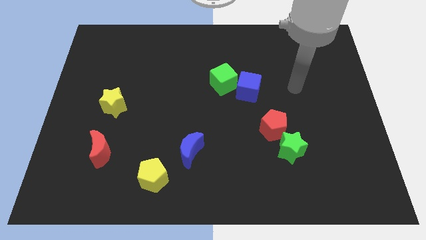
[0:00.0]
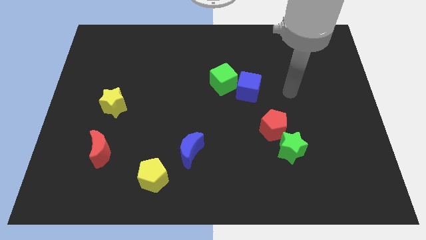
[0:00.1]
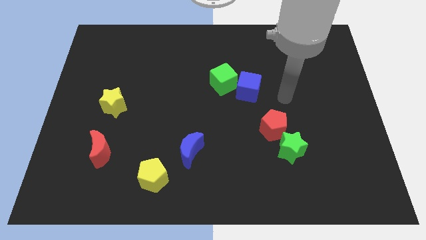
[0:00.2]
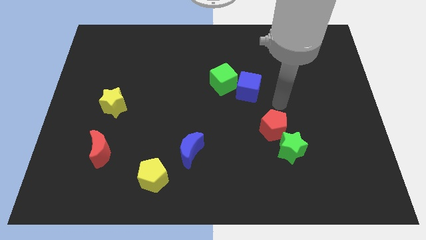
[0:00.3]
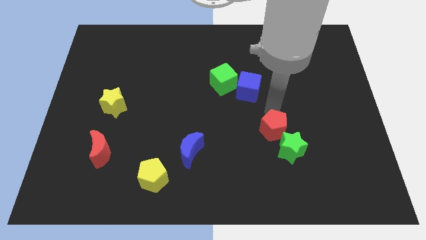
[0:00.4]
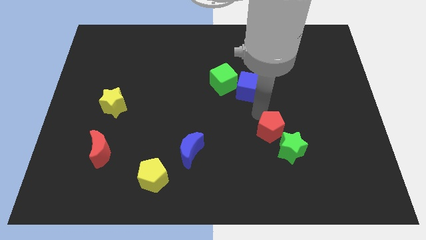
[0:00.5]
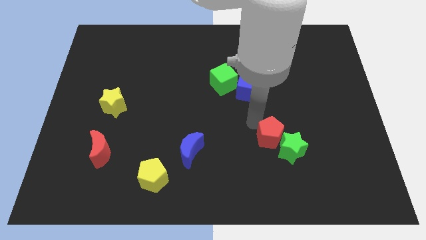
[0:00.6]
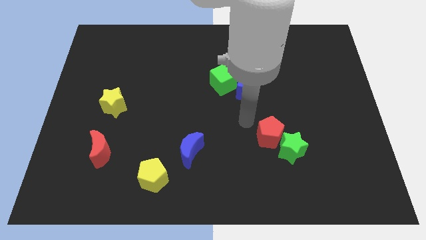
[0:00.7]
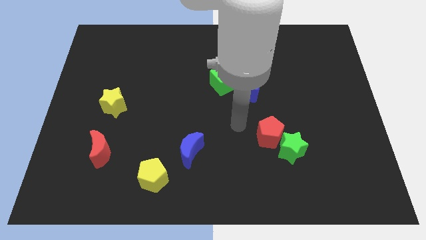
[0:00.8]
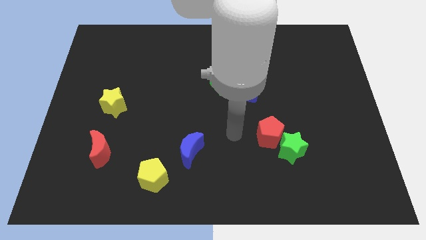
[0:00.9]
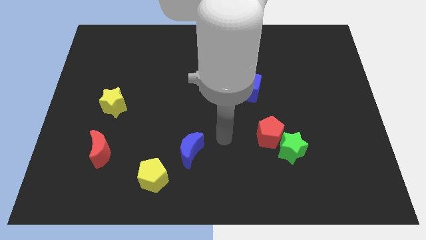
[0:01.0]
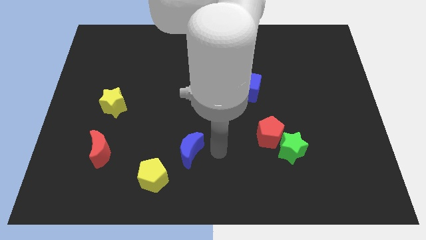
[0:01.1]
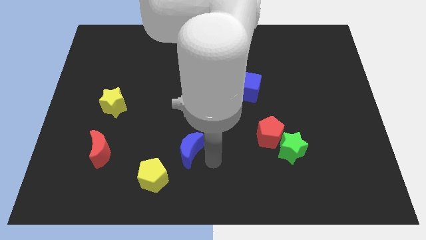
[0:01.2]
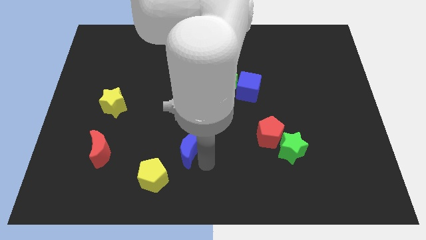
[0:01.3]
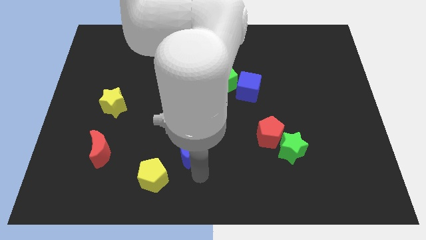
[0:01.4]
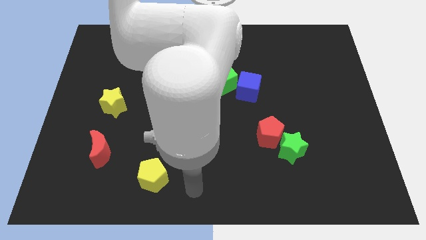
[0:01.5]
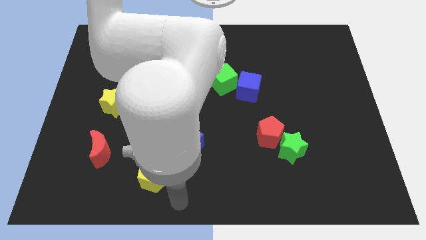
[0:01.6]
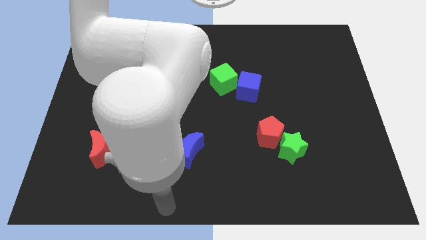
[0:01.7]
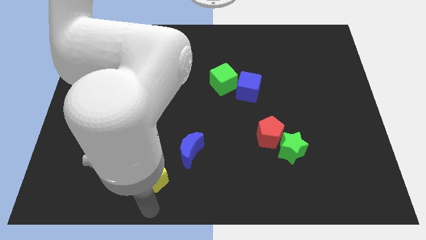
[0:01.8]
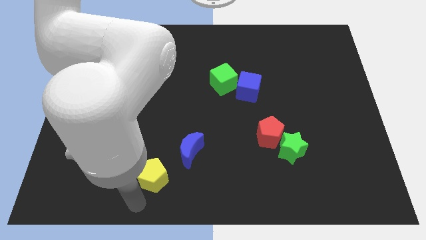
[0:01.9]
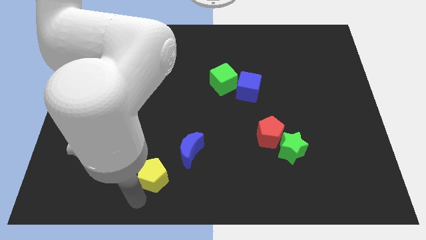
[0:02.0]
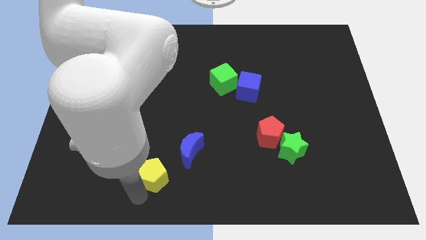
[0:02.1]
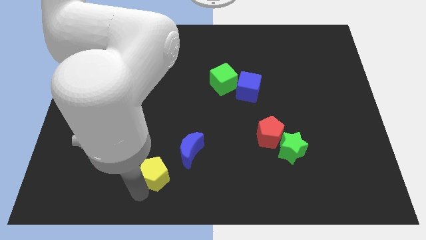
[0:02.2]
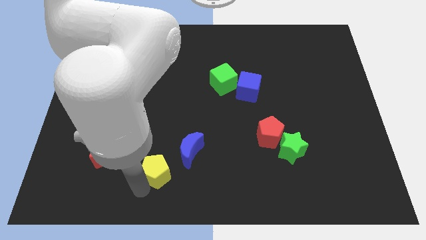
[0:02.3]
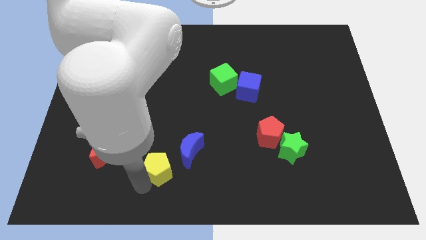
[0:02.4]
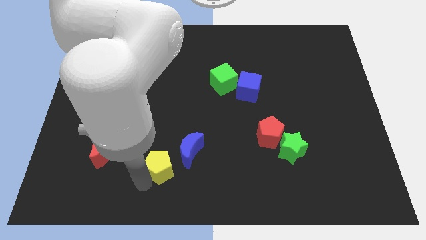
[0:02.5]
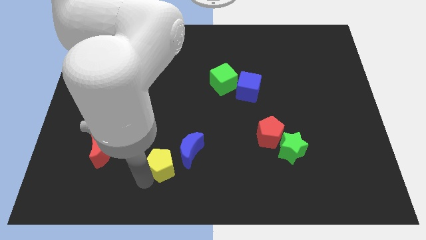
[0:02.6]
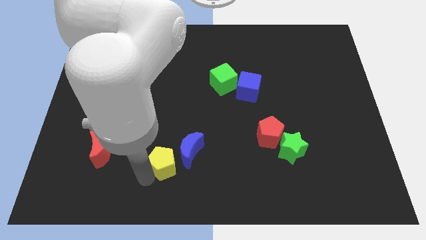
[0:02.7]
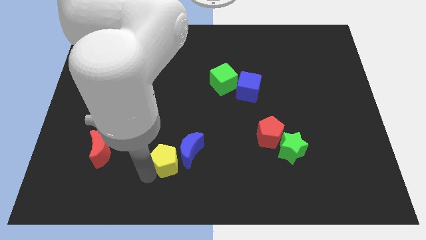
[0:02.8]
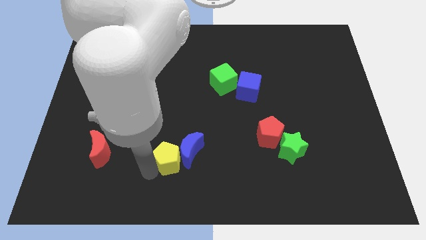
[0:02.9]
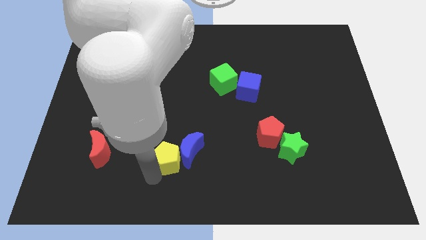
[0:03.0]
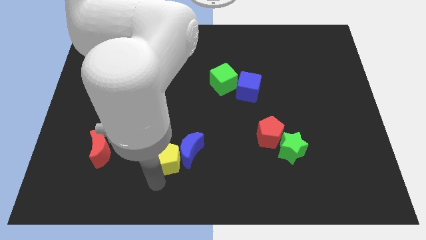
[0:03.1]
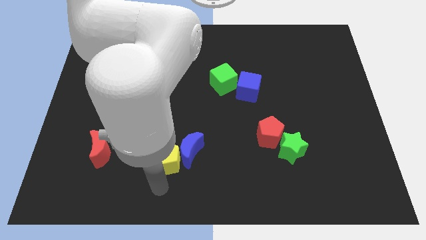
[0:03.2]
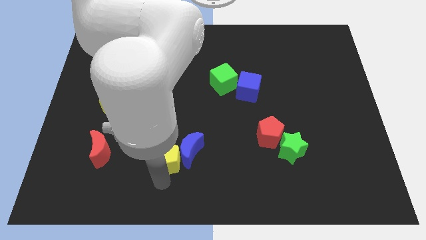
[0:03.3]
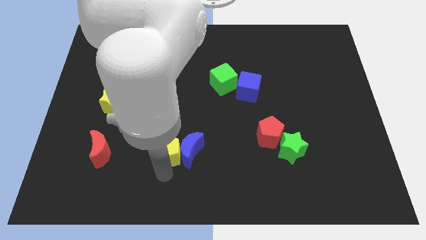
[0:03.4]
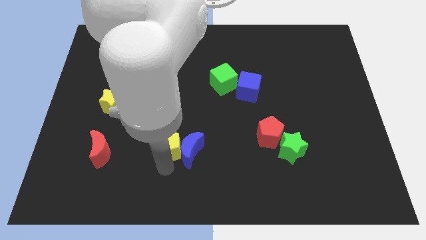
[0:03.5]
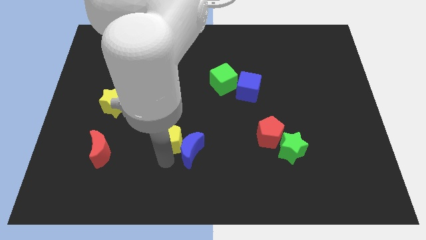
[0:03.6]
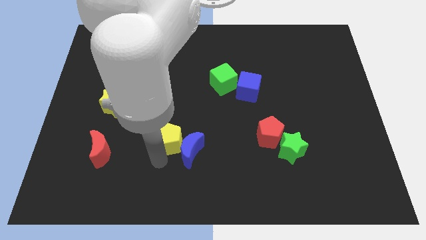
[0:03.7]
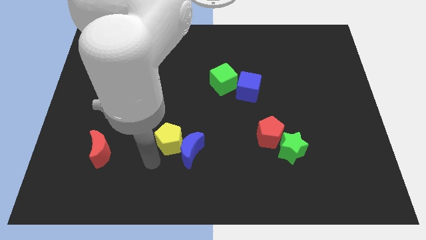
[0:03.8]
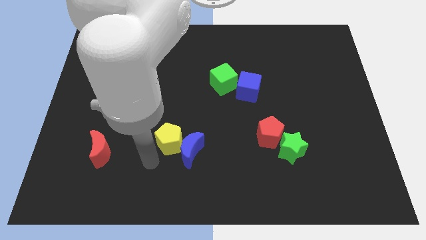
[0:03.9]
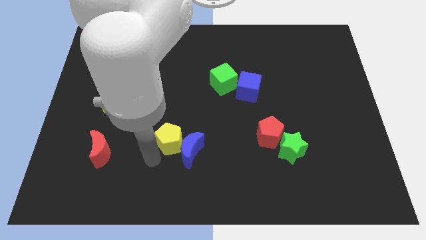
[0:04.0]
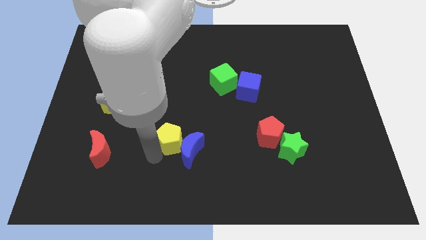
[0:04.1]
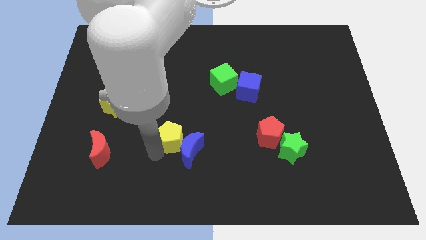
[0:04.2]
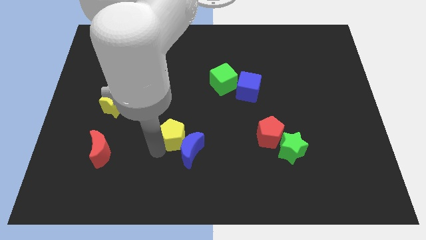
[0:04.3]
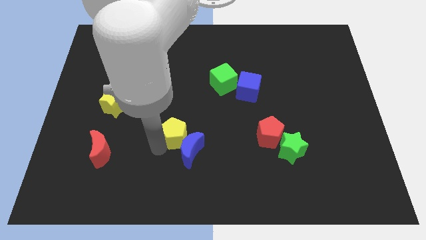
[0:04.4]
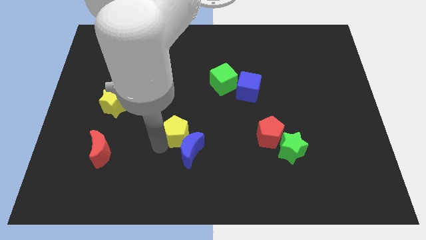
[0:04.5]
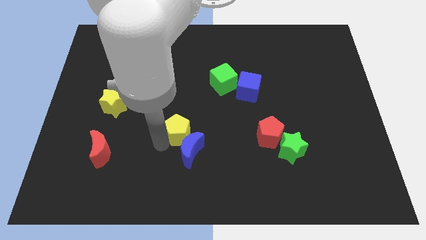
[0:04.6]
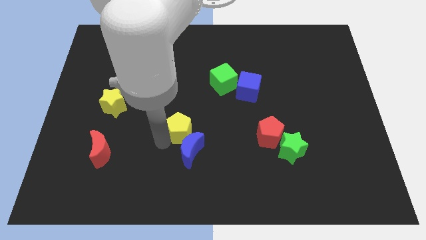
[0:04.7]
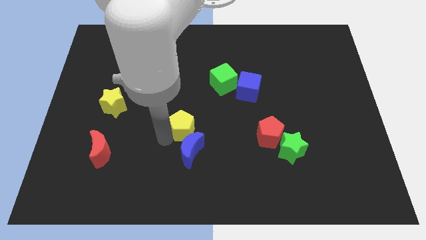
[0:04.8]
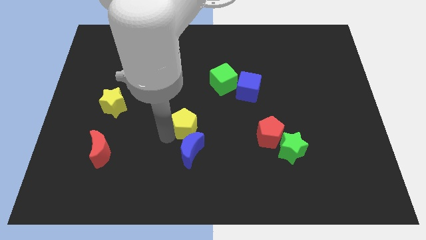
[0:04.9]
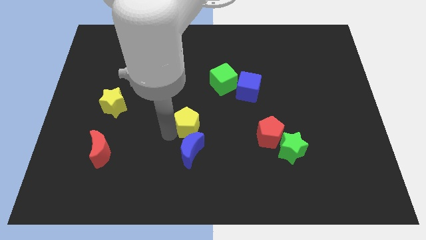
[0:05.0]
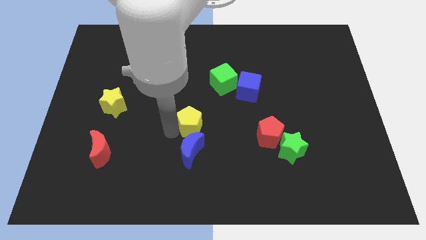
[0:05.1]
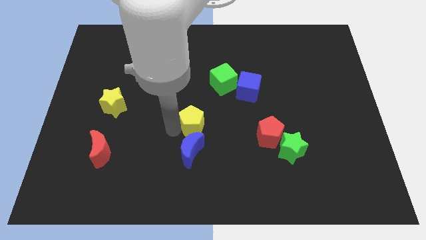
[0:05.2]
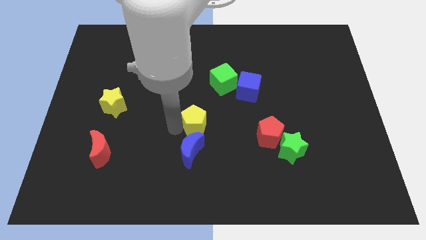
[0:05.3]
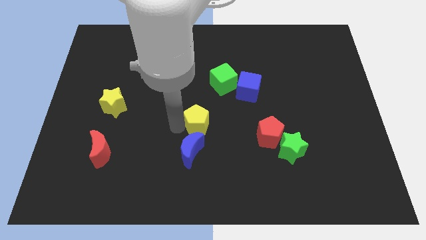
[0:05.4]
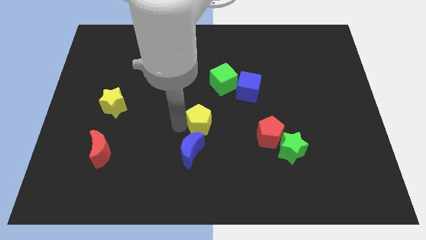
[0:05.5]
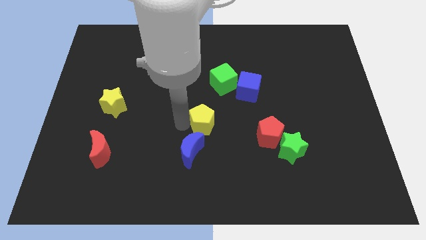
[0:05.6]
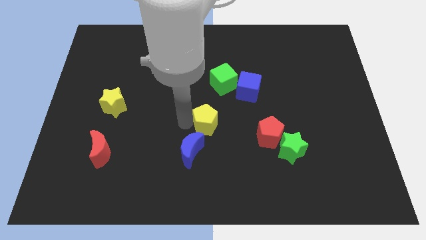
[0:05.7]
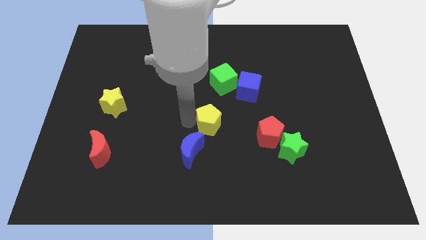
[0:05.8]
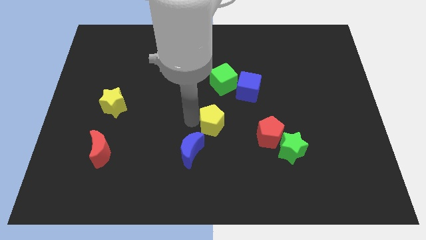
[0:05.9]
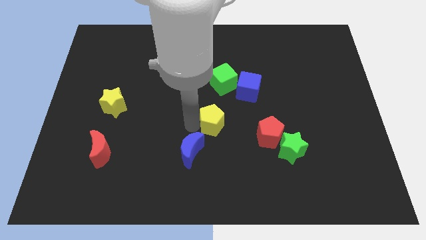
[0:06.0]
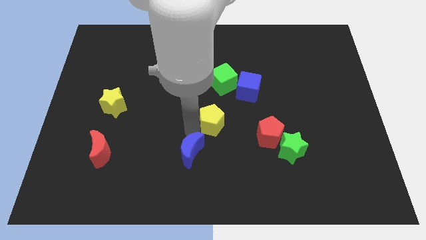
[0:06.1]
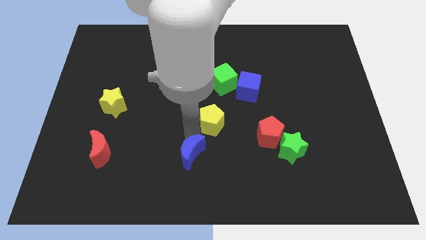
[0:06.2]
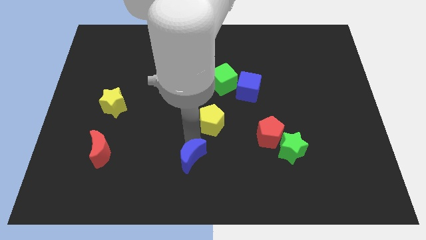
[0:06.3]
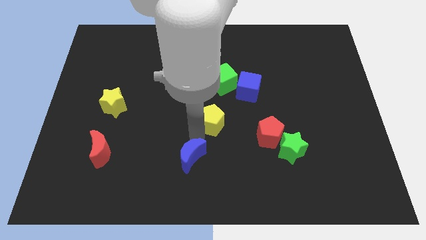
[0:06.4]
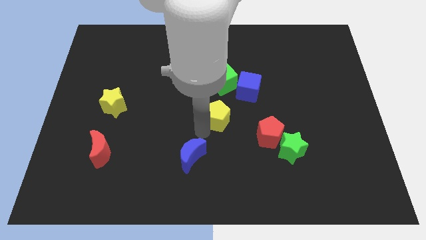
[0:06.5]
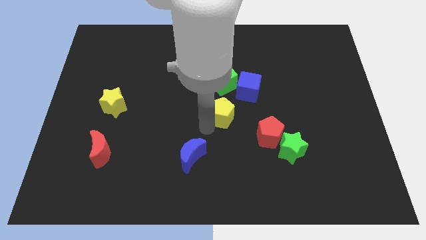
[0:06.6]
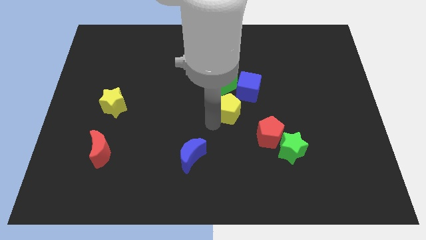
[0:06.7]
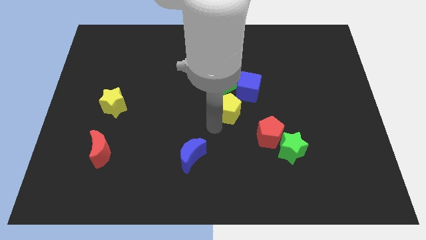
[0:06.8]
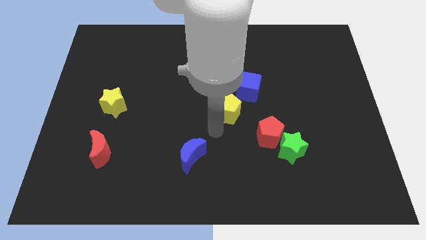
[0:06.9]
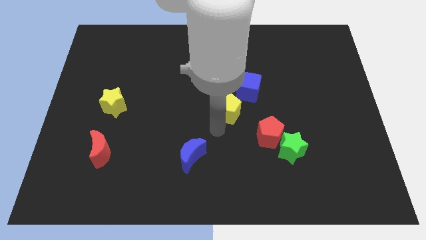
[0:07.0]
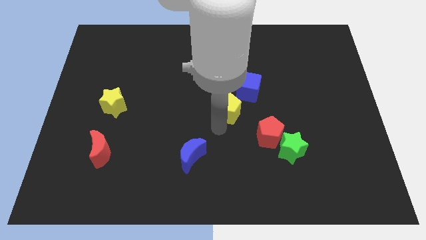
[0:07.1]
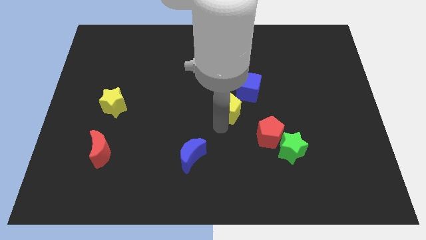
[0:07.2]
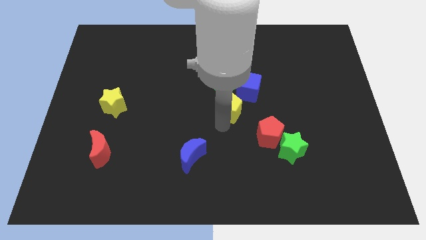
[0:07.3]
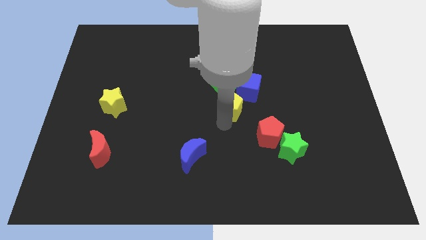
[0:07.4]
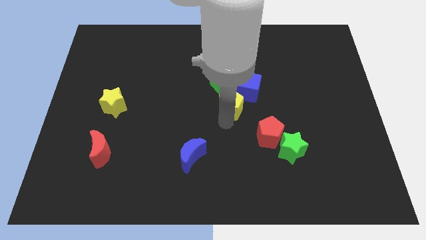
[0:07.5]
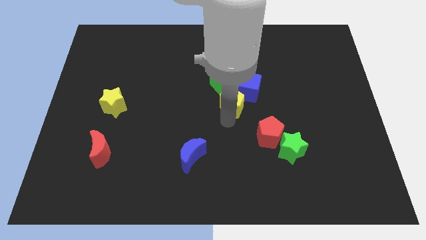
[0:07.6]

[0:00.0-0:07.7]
slide the yellow pentagon close to the blue cube
